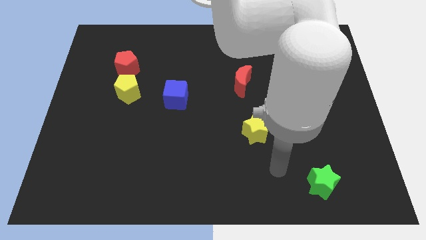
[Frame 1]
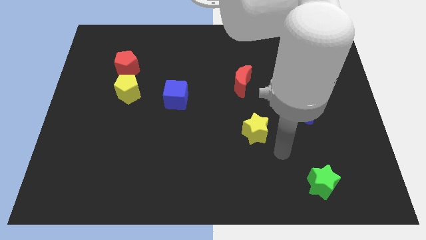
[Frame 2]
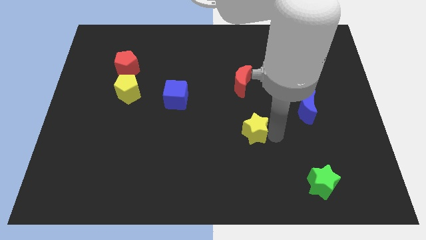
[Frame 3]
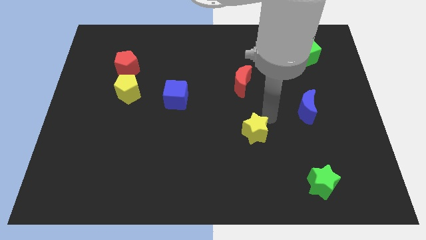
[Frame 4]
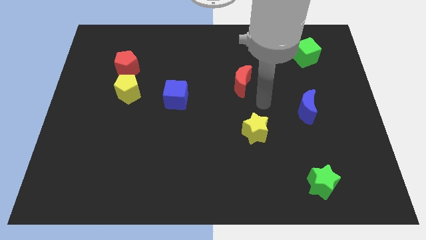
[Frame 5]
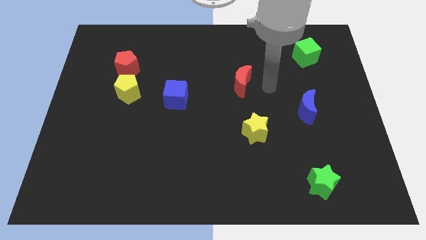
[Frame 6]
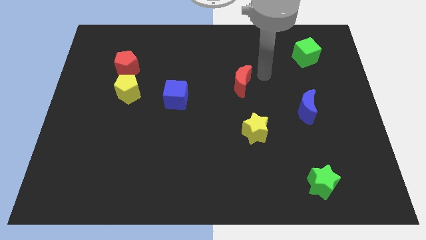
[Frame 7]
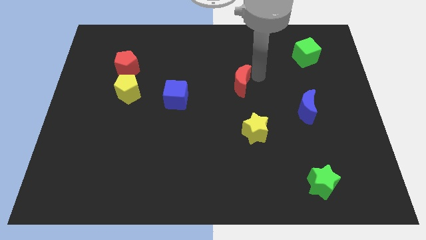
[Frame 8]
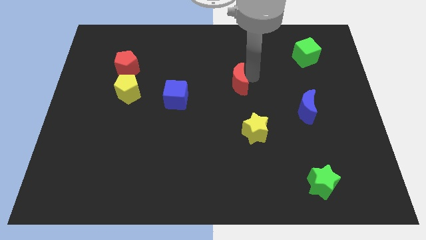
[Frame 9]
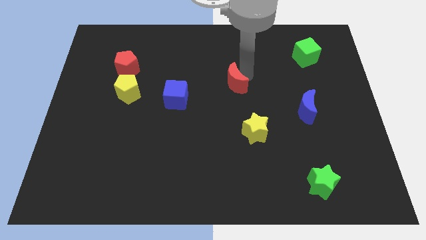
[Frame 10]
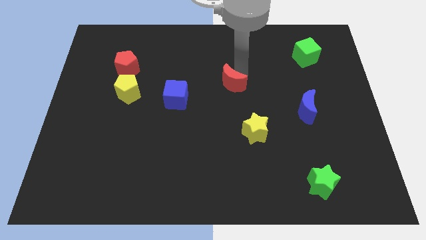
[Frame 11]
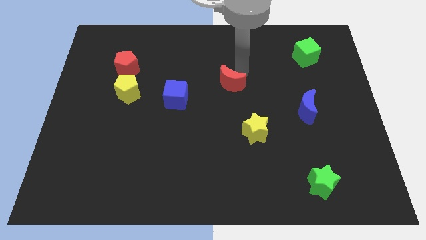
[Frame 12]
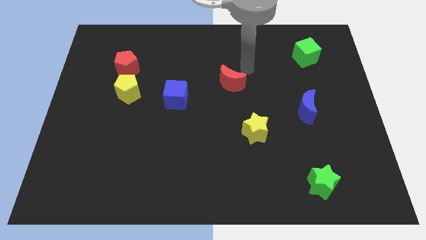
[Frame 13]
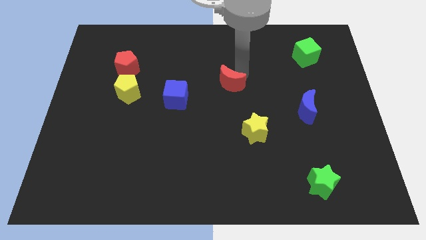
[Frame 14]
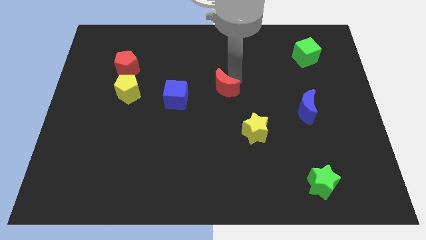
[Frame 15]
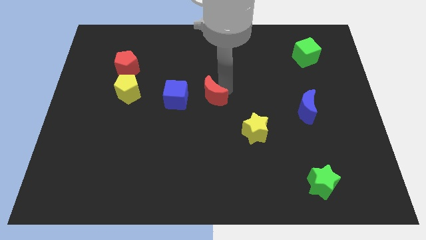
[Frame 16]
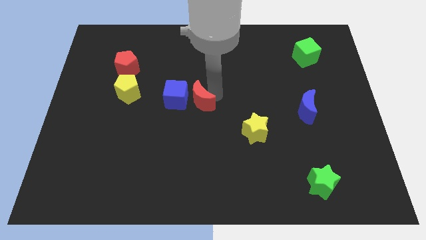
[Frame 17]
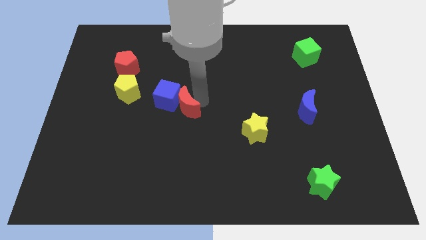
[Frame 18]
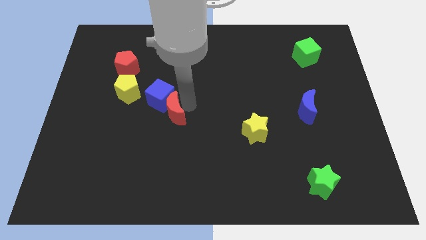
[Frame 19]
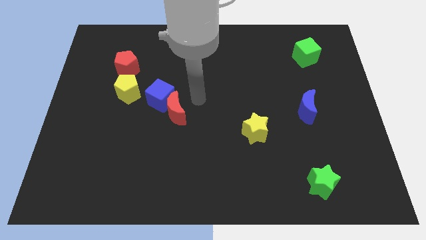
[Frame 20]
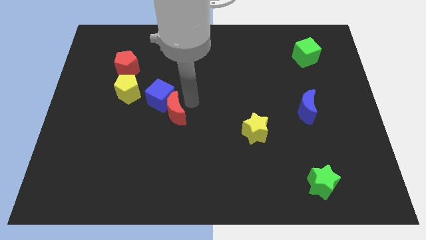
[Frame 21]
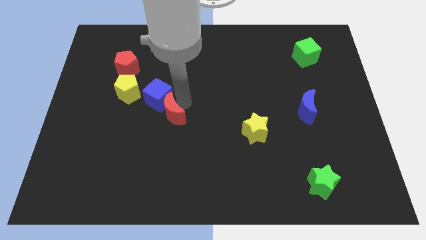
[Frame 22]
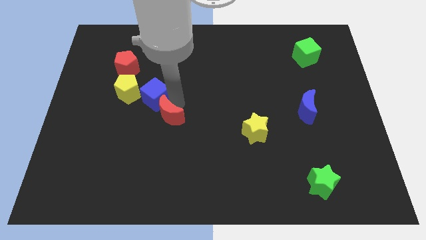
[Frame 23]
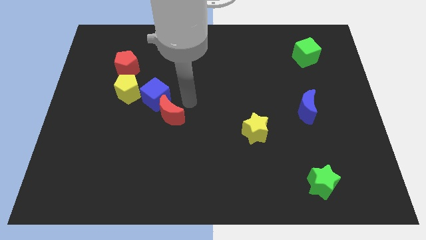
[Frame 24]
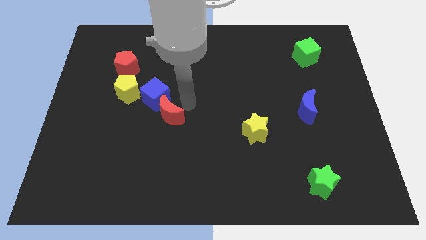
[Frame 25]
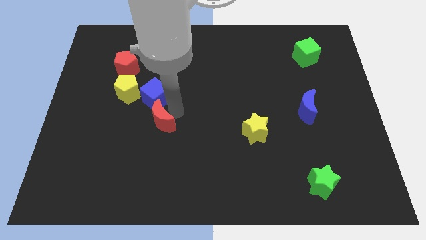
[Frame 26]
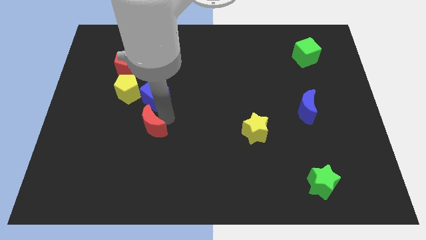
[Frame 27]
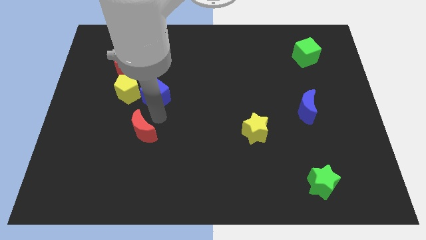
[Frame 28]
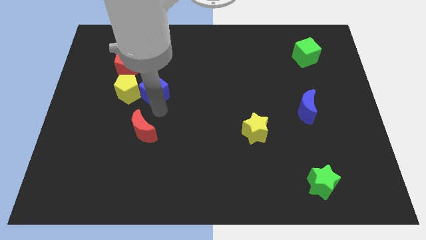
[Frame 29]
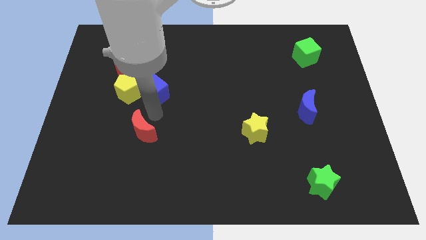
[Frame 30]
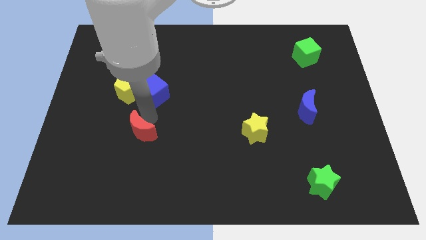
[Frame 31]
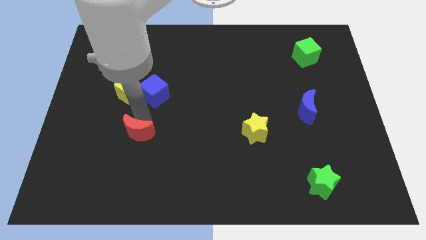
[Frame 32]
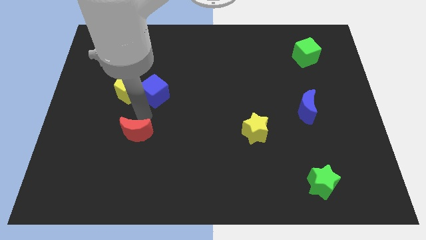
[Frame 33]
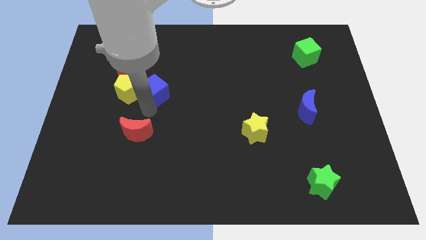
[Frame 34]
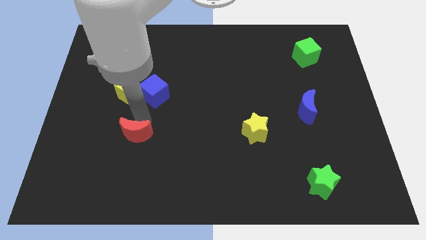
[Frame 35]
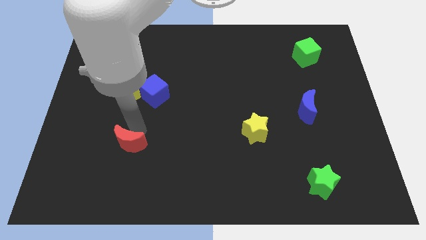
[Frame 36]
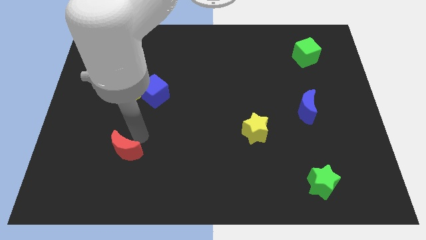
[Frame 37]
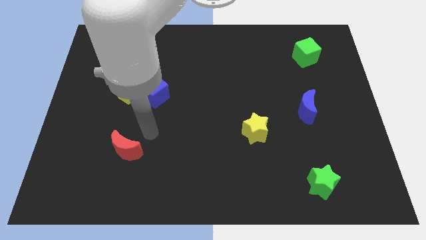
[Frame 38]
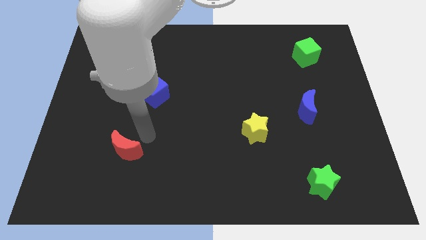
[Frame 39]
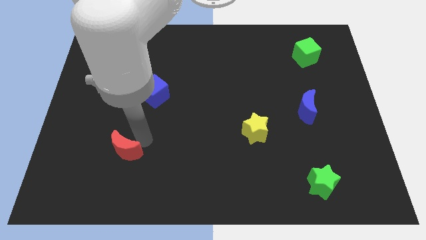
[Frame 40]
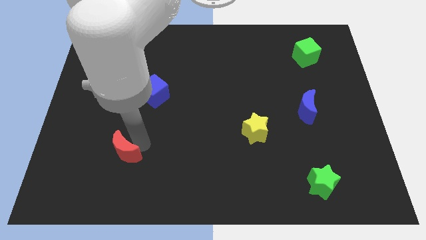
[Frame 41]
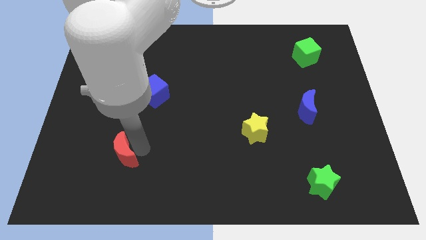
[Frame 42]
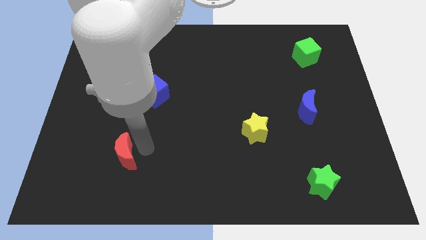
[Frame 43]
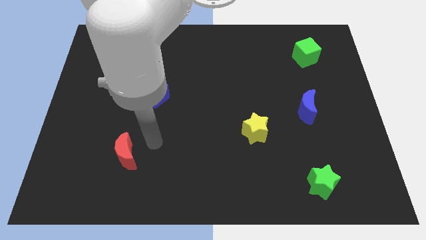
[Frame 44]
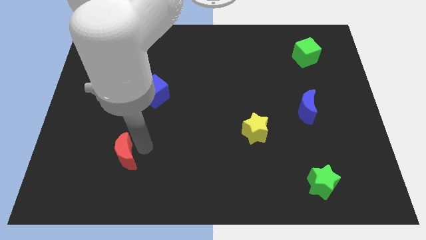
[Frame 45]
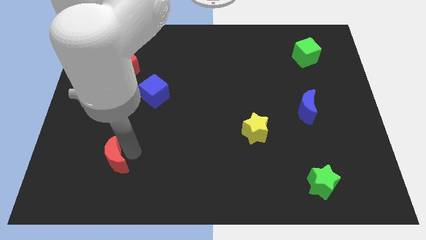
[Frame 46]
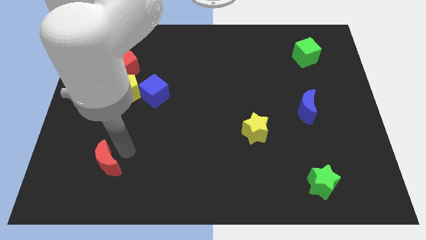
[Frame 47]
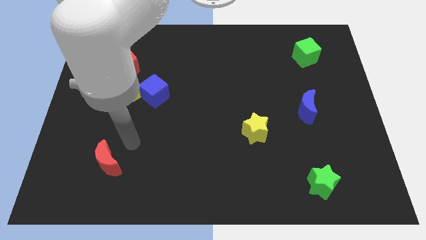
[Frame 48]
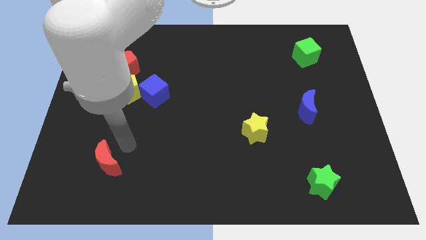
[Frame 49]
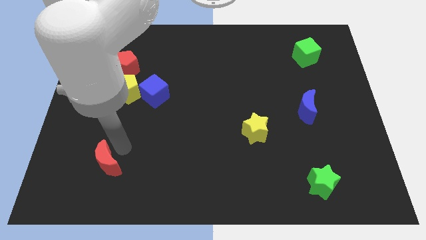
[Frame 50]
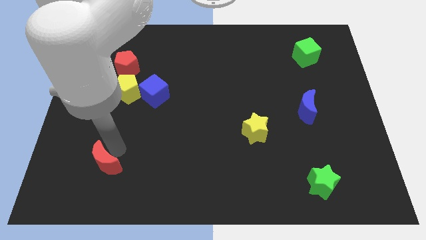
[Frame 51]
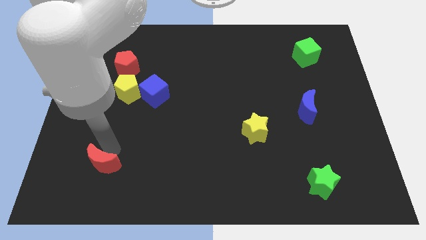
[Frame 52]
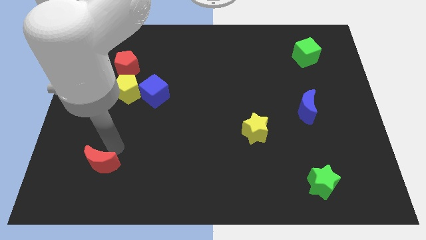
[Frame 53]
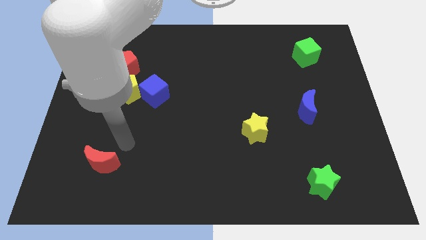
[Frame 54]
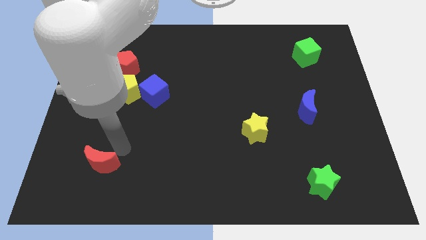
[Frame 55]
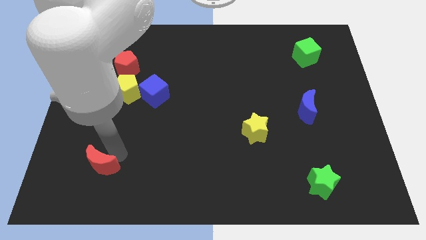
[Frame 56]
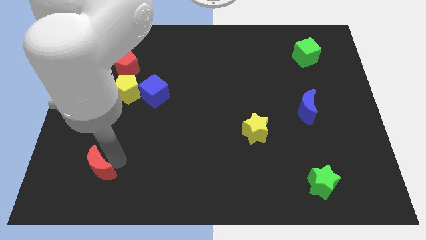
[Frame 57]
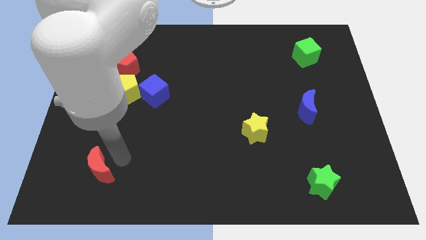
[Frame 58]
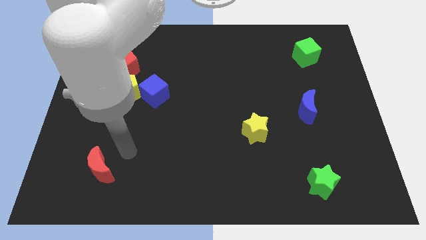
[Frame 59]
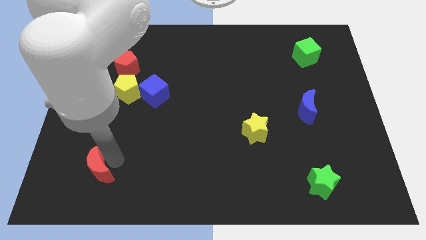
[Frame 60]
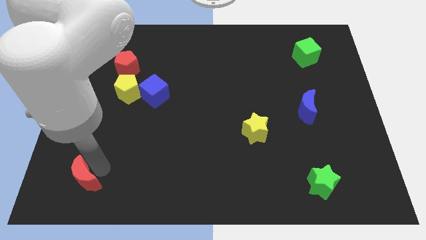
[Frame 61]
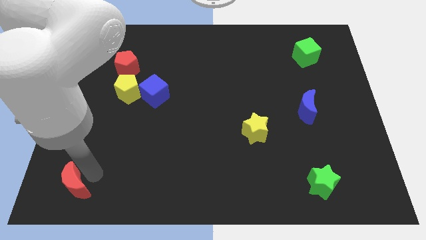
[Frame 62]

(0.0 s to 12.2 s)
move the red moon to the bottom left of the board

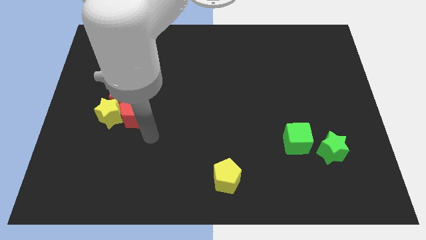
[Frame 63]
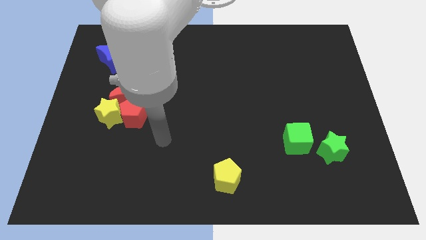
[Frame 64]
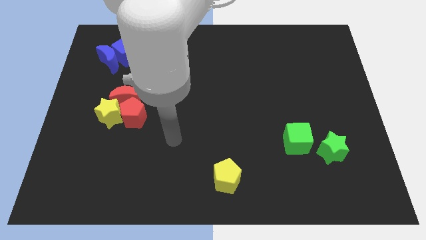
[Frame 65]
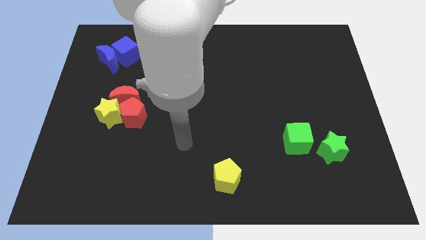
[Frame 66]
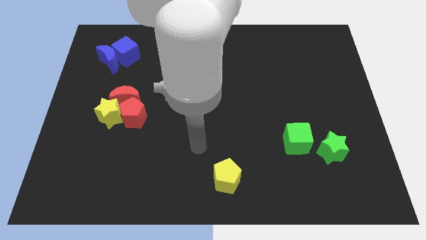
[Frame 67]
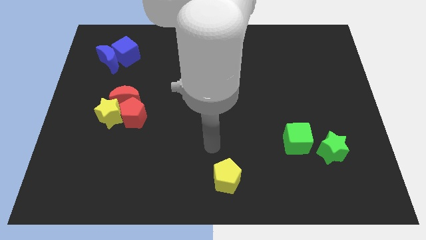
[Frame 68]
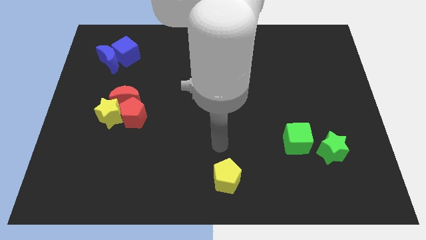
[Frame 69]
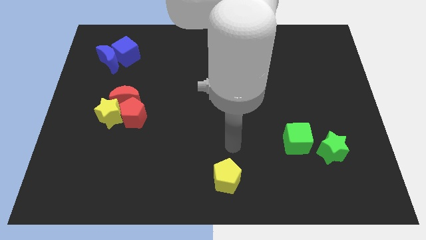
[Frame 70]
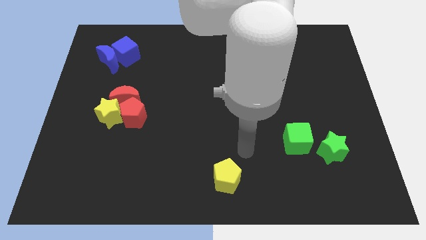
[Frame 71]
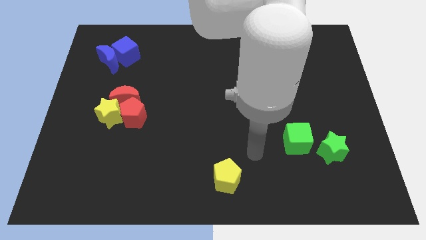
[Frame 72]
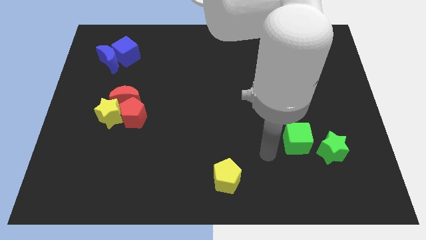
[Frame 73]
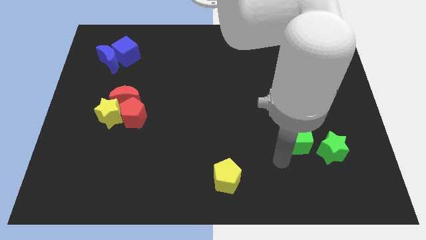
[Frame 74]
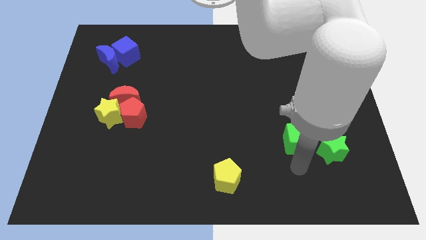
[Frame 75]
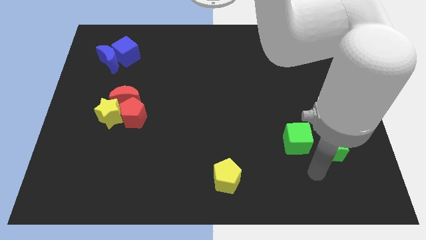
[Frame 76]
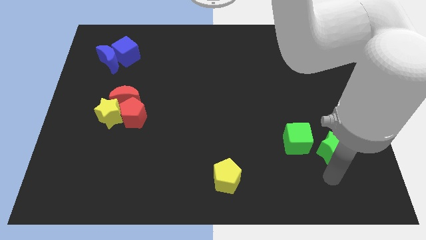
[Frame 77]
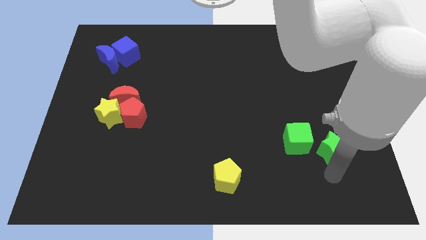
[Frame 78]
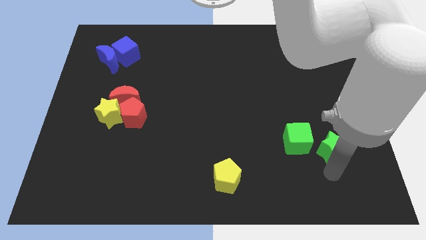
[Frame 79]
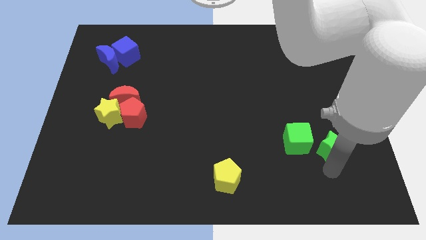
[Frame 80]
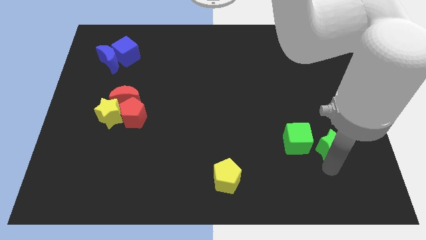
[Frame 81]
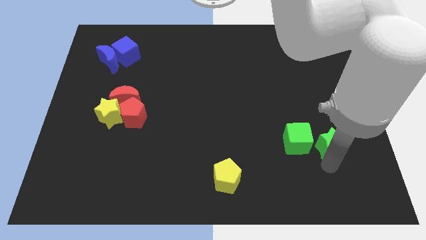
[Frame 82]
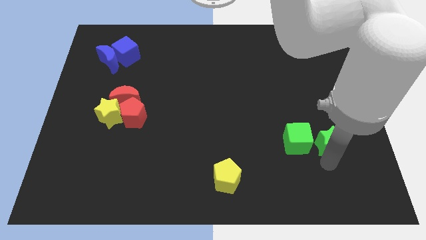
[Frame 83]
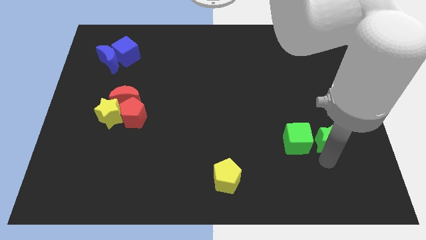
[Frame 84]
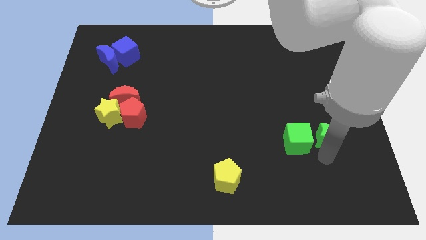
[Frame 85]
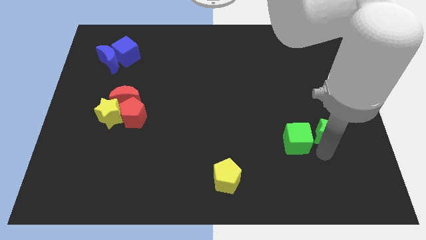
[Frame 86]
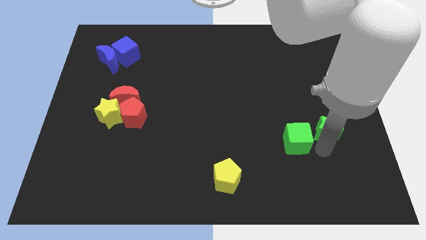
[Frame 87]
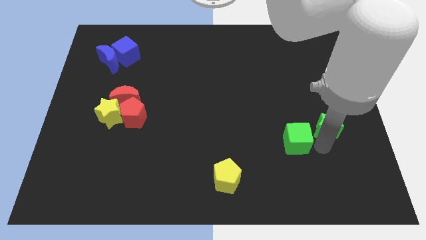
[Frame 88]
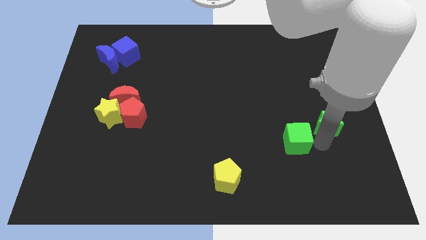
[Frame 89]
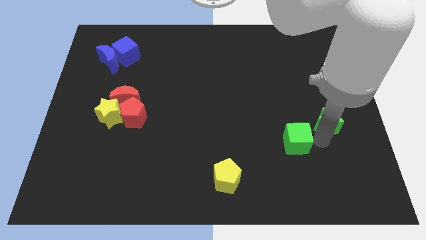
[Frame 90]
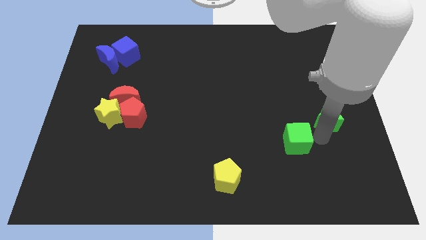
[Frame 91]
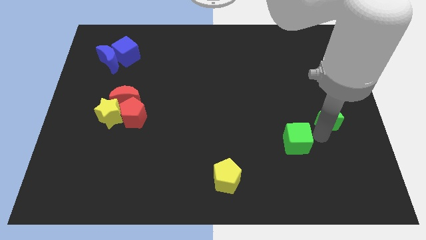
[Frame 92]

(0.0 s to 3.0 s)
push the green star to the center right
